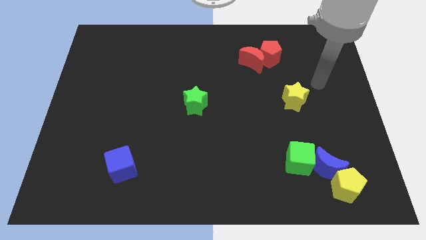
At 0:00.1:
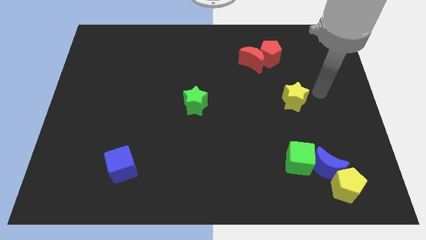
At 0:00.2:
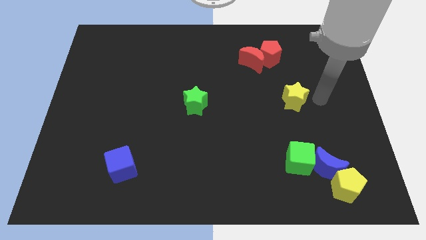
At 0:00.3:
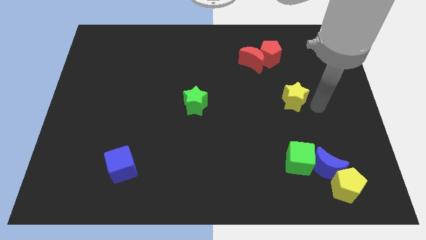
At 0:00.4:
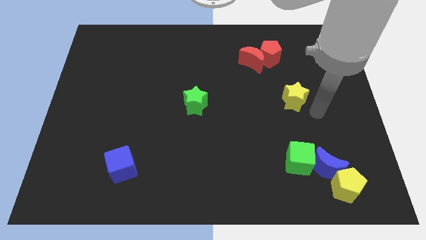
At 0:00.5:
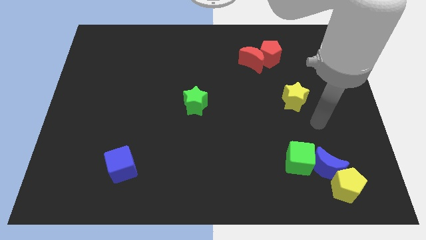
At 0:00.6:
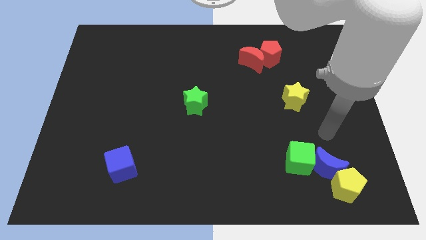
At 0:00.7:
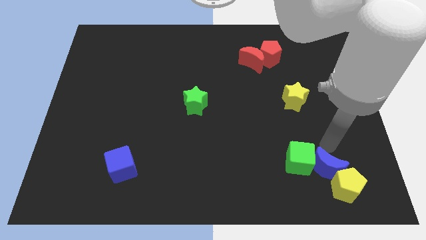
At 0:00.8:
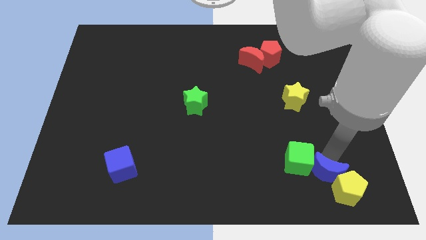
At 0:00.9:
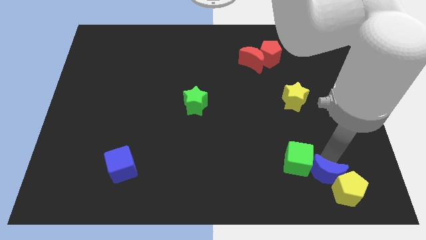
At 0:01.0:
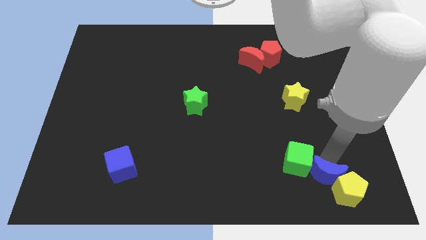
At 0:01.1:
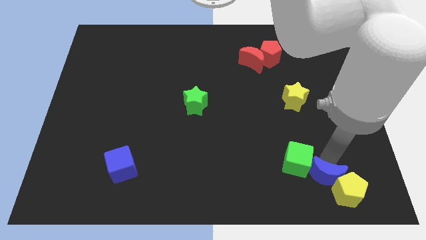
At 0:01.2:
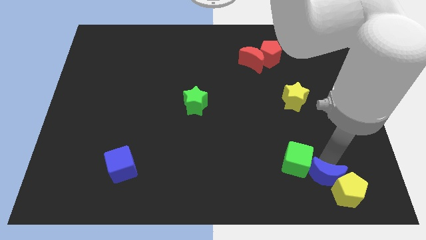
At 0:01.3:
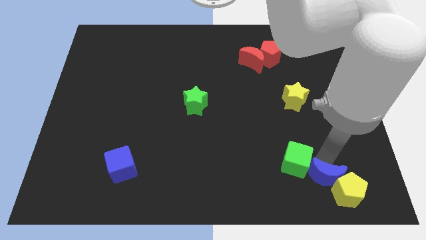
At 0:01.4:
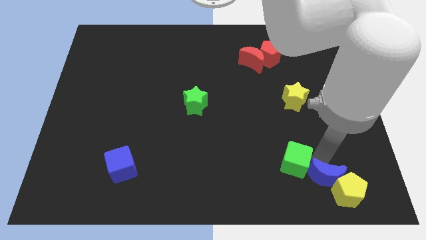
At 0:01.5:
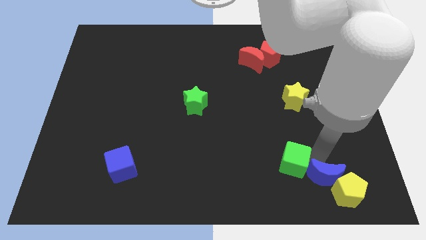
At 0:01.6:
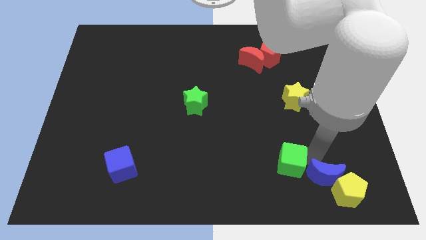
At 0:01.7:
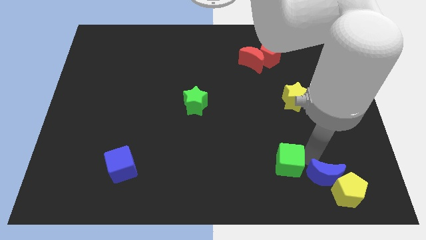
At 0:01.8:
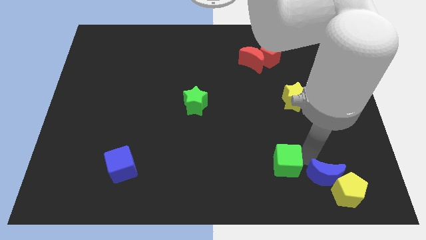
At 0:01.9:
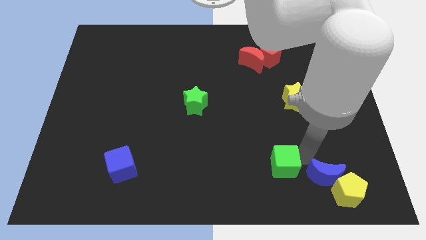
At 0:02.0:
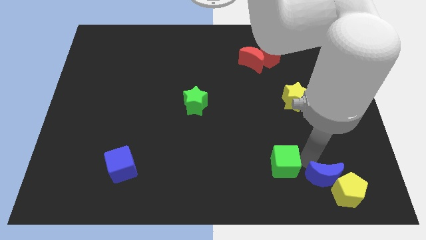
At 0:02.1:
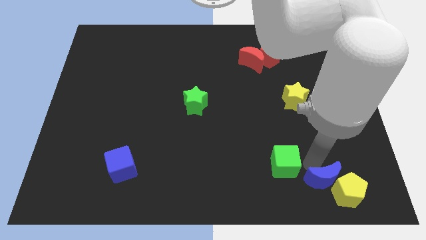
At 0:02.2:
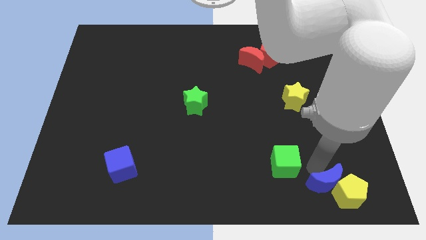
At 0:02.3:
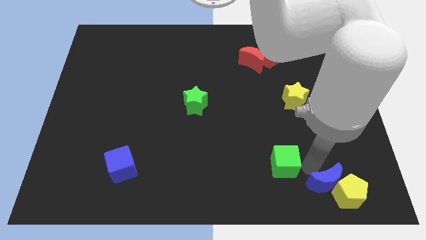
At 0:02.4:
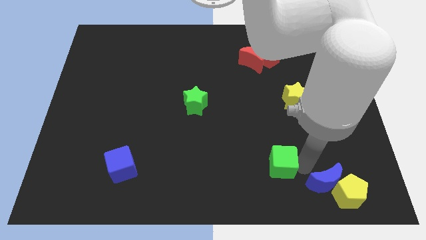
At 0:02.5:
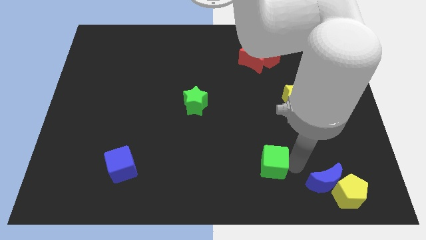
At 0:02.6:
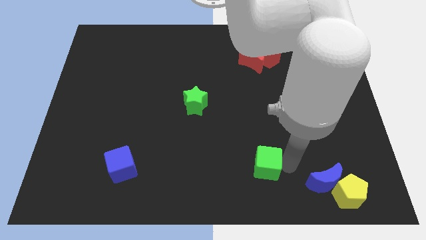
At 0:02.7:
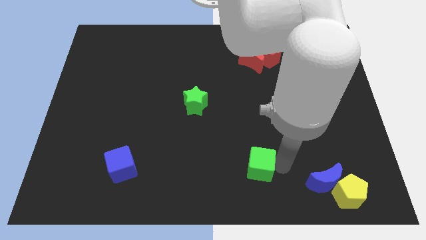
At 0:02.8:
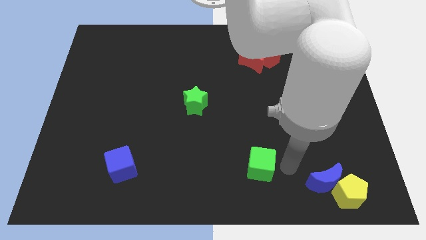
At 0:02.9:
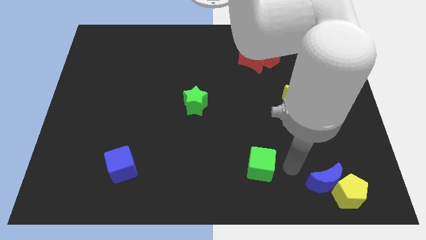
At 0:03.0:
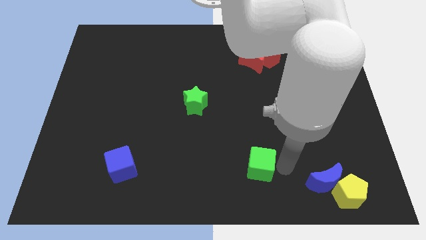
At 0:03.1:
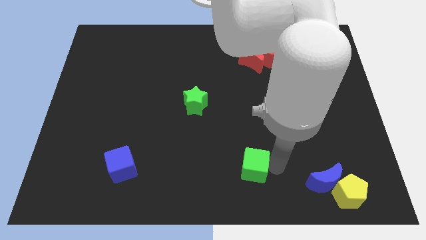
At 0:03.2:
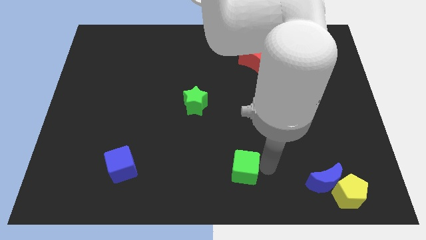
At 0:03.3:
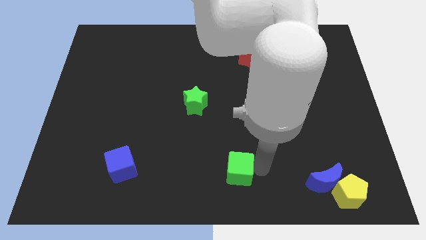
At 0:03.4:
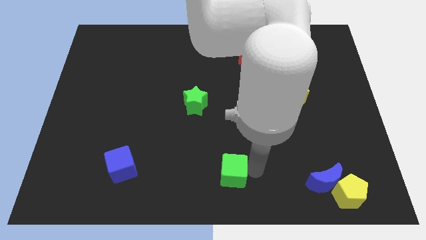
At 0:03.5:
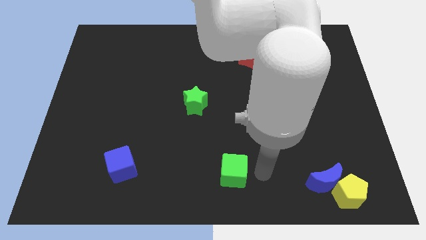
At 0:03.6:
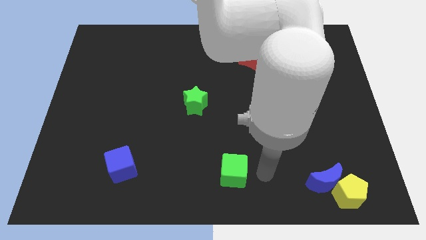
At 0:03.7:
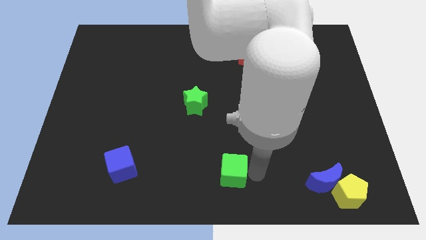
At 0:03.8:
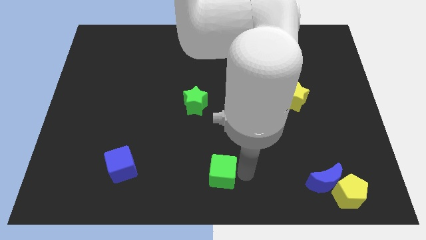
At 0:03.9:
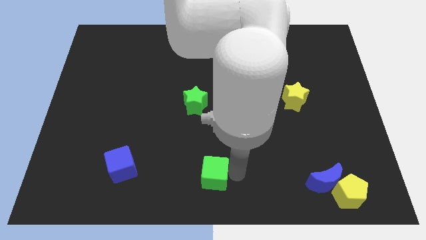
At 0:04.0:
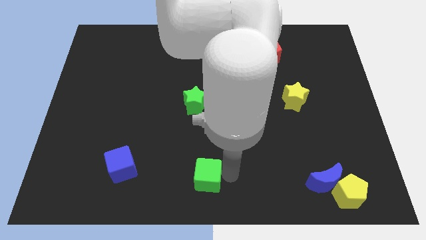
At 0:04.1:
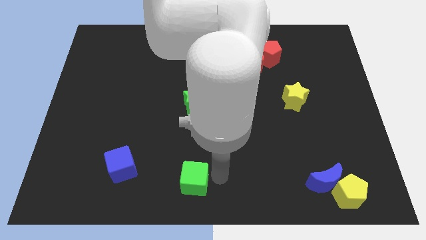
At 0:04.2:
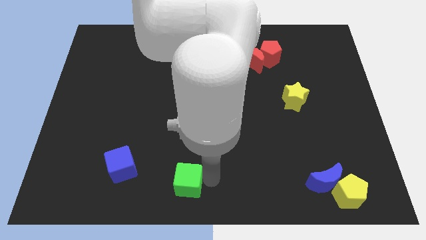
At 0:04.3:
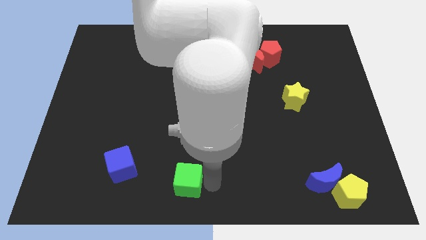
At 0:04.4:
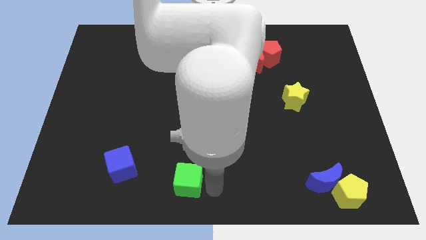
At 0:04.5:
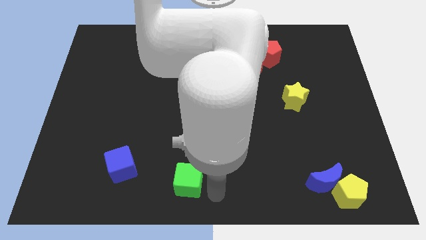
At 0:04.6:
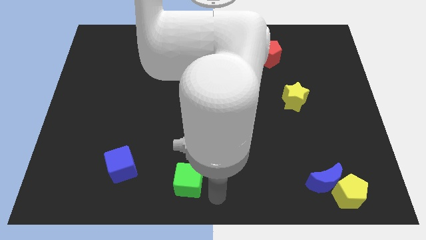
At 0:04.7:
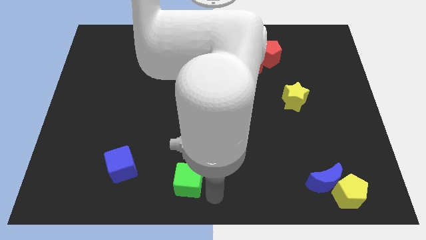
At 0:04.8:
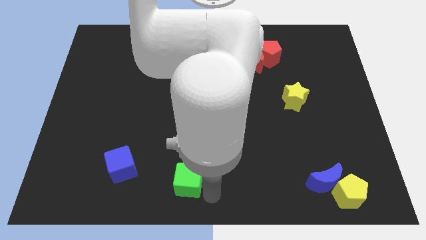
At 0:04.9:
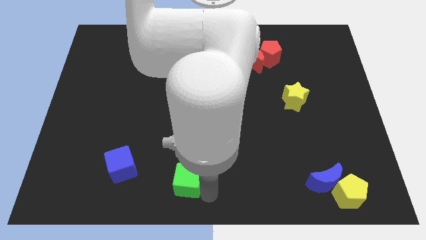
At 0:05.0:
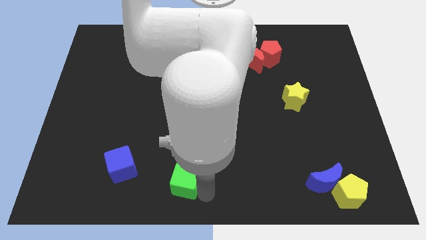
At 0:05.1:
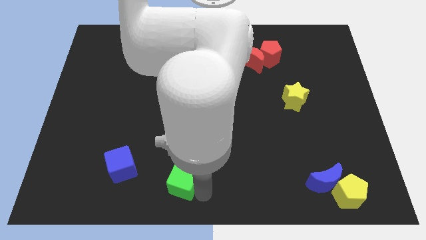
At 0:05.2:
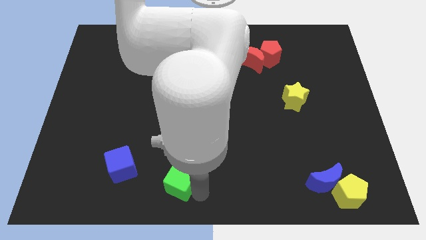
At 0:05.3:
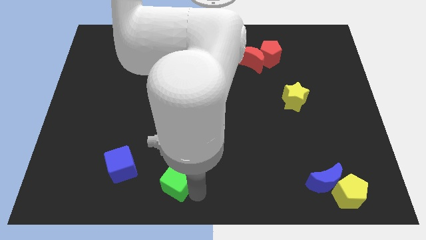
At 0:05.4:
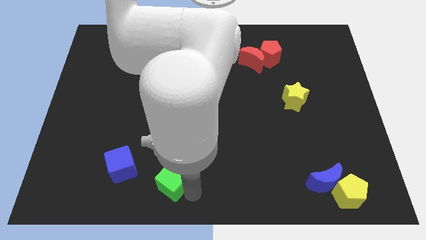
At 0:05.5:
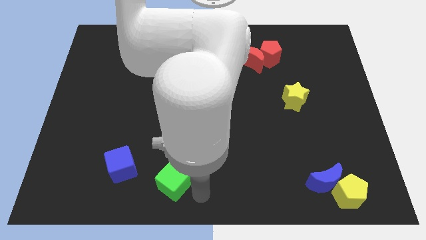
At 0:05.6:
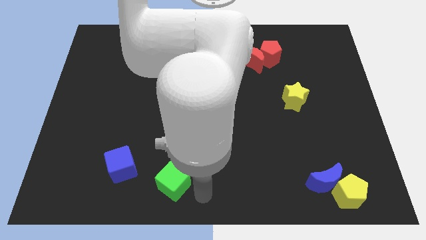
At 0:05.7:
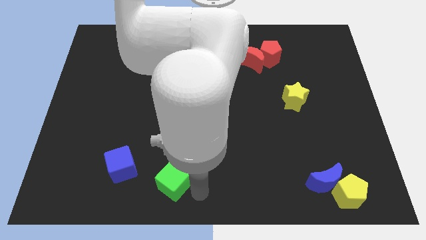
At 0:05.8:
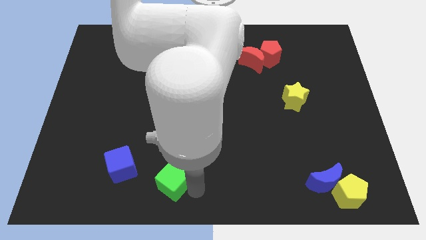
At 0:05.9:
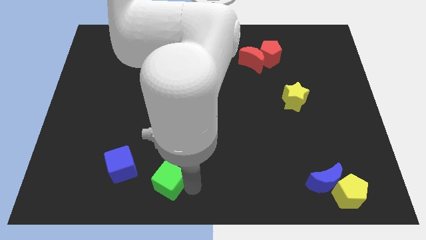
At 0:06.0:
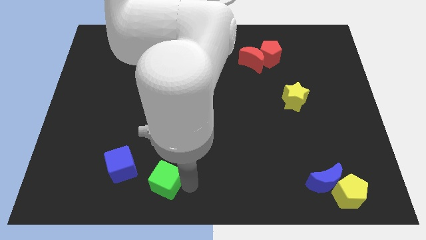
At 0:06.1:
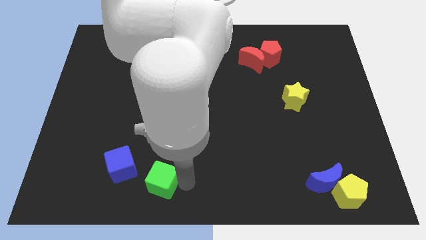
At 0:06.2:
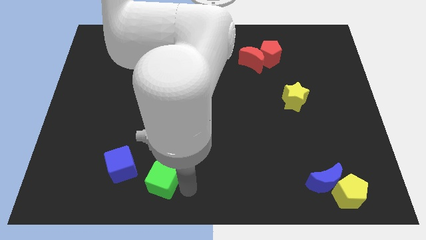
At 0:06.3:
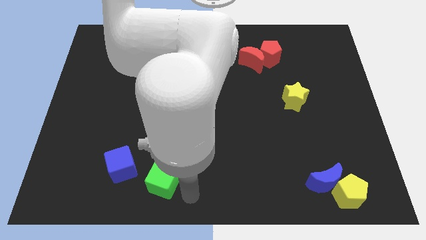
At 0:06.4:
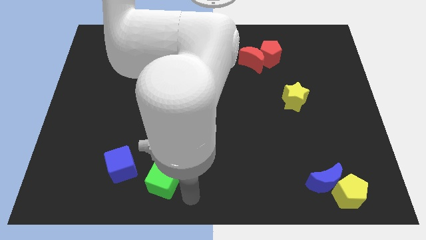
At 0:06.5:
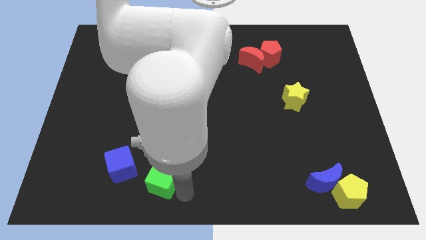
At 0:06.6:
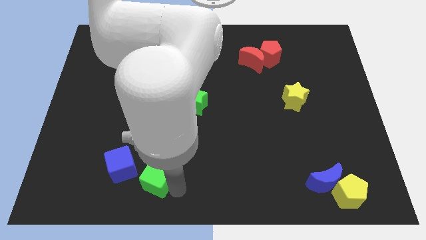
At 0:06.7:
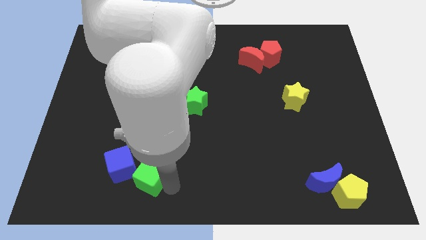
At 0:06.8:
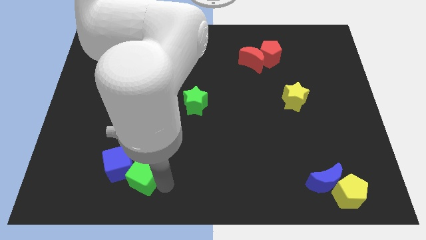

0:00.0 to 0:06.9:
move the green cube close to the blue cube
